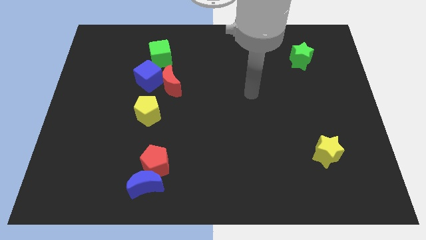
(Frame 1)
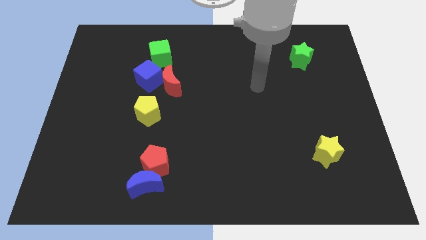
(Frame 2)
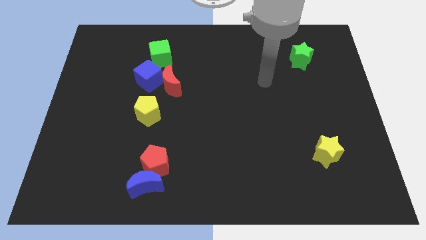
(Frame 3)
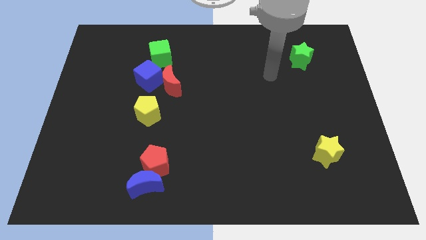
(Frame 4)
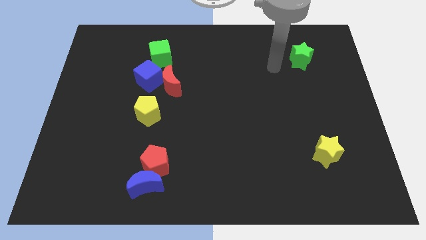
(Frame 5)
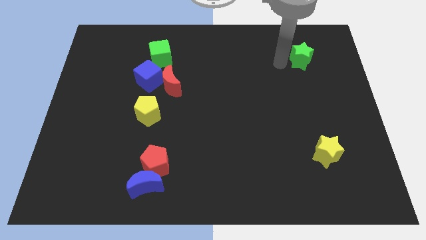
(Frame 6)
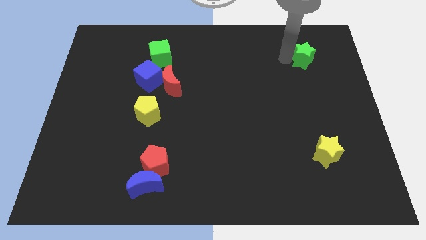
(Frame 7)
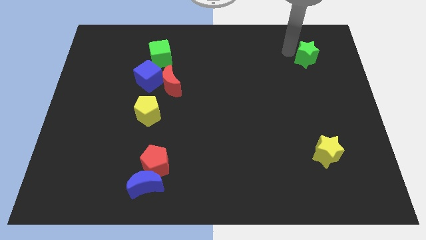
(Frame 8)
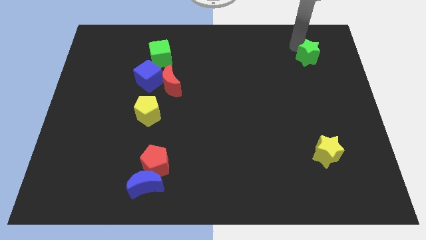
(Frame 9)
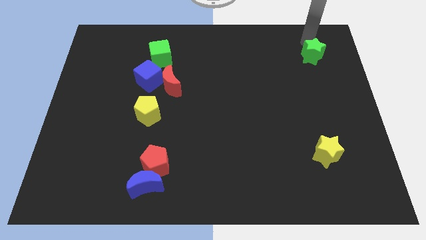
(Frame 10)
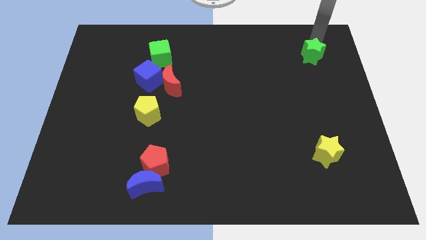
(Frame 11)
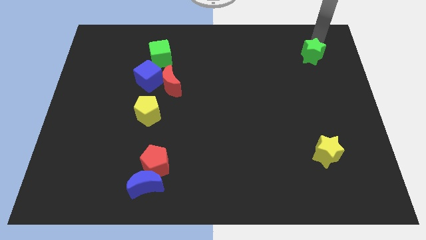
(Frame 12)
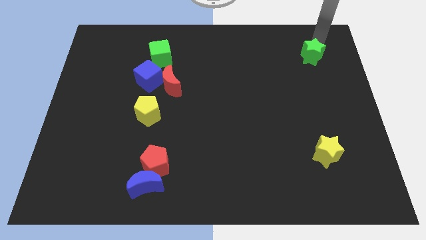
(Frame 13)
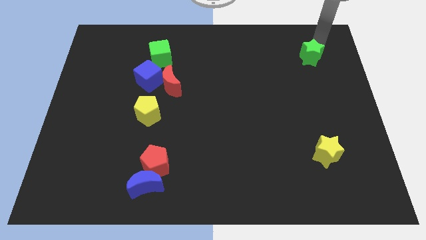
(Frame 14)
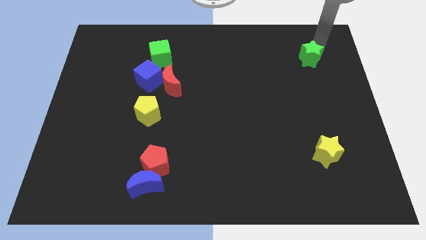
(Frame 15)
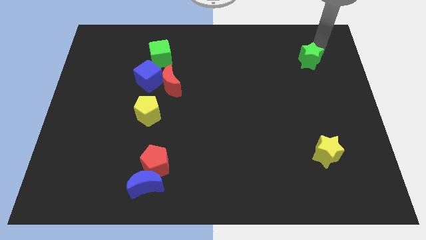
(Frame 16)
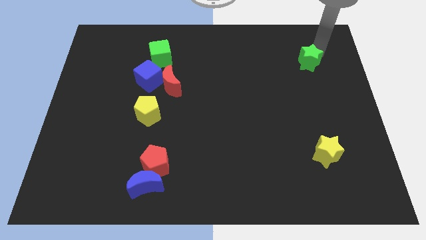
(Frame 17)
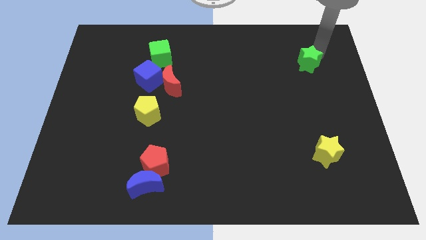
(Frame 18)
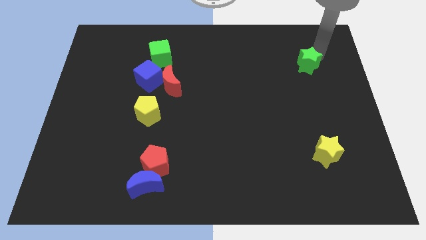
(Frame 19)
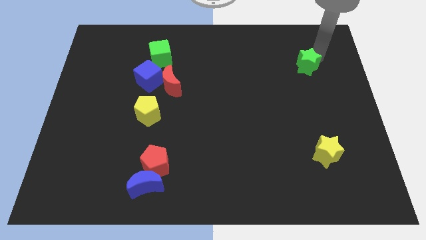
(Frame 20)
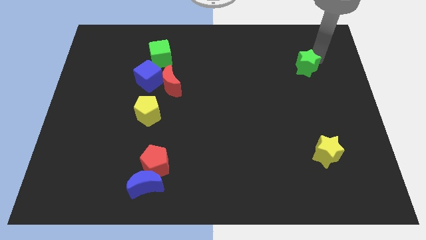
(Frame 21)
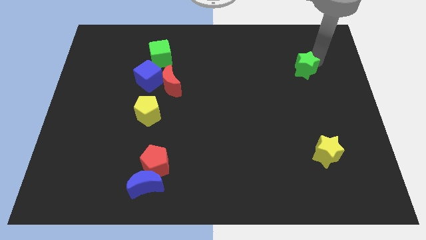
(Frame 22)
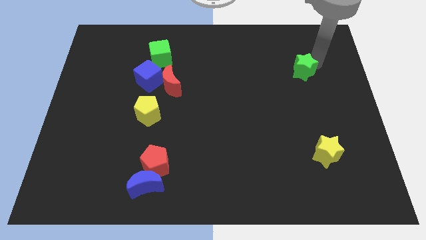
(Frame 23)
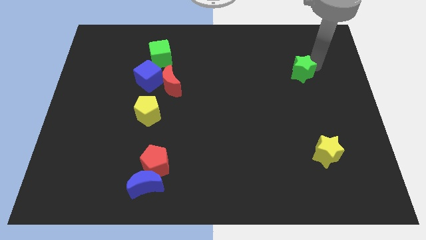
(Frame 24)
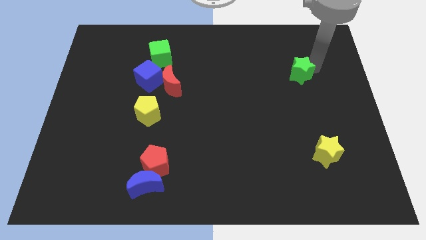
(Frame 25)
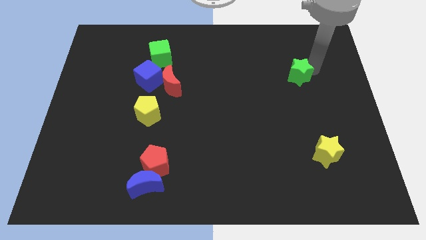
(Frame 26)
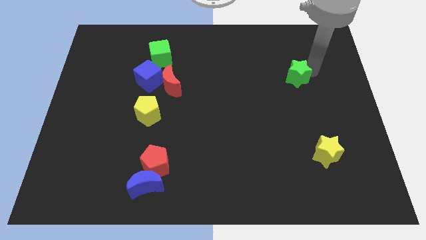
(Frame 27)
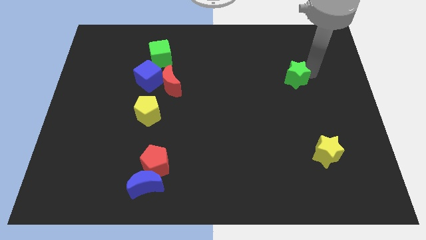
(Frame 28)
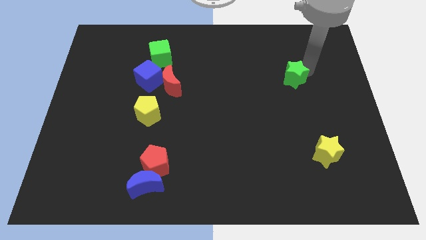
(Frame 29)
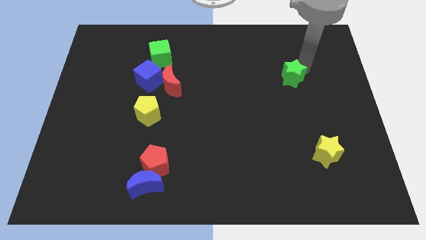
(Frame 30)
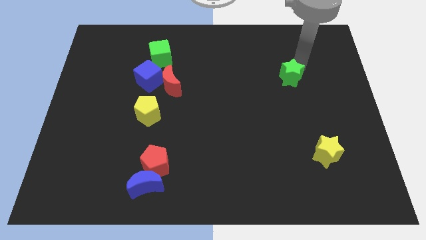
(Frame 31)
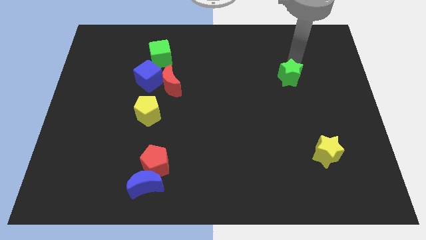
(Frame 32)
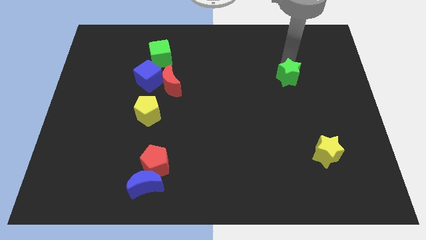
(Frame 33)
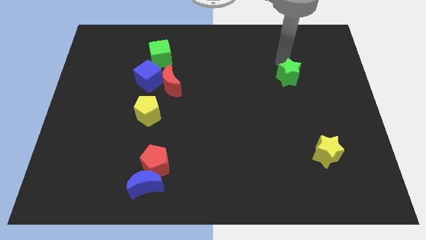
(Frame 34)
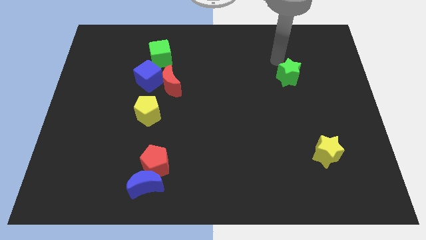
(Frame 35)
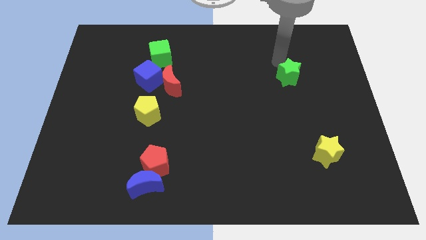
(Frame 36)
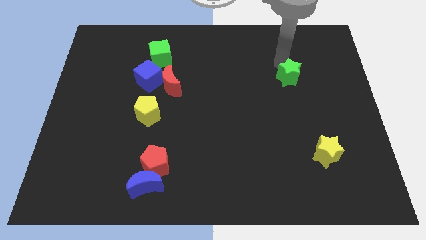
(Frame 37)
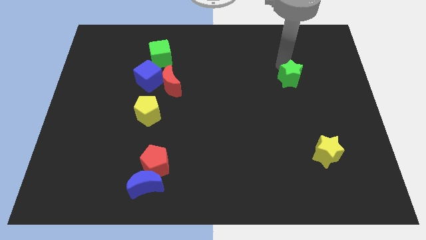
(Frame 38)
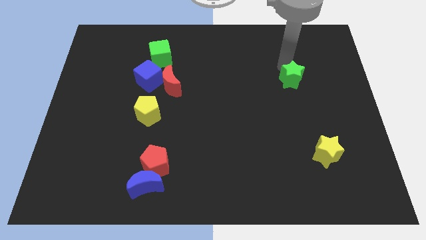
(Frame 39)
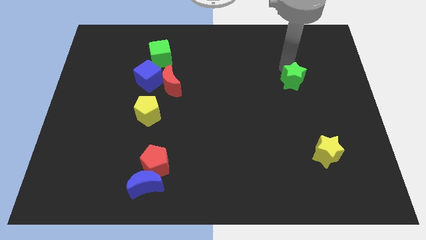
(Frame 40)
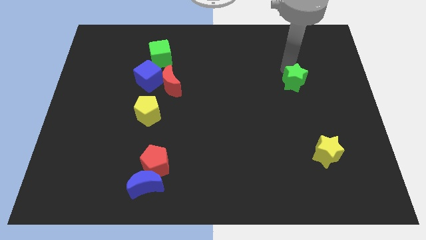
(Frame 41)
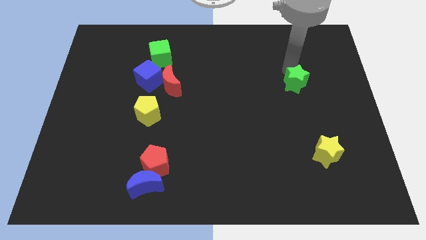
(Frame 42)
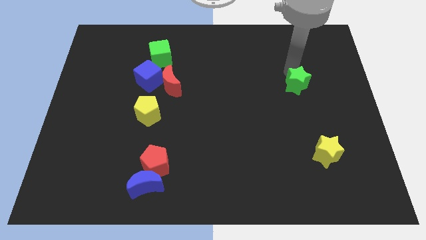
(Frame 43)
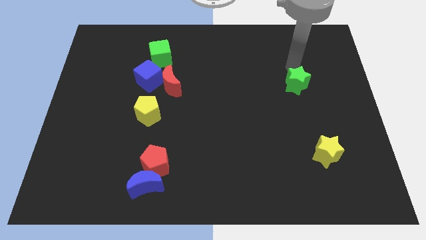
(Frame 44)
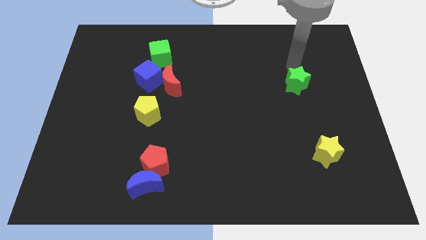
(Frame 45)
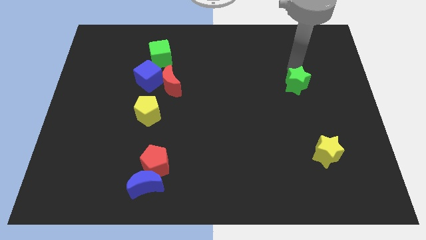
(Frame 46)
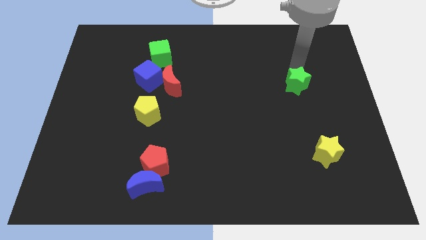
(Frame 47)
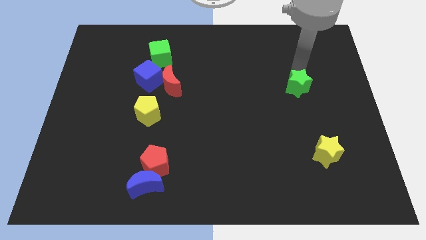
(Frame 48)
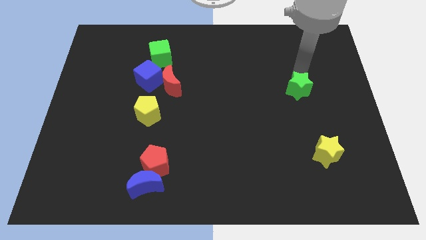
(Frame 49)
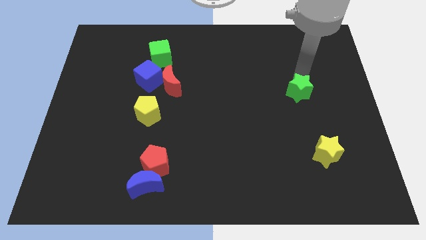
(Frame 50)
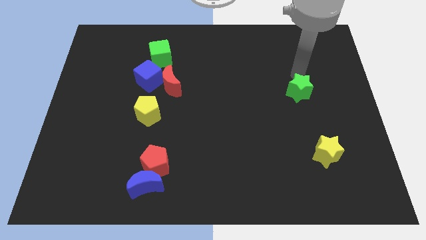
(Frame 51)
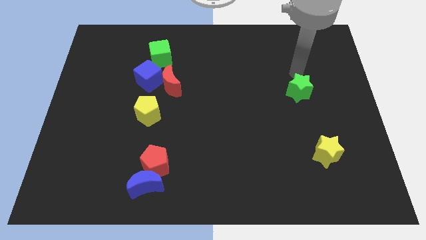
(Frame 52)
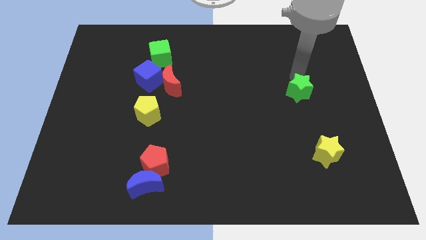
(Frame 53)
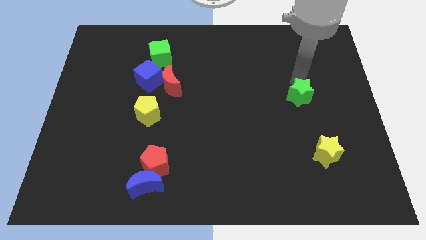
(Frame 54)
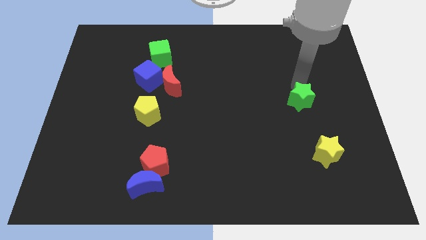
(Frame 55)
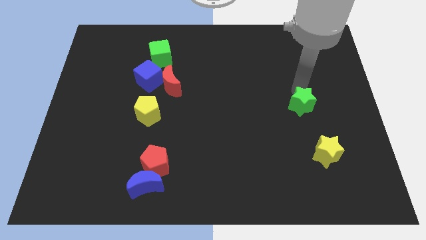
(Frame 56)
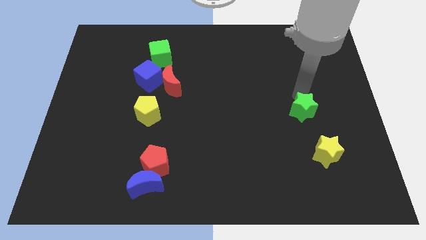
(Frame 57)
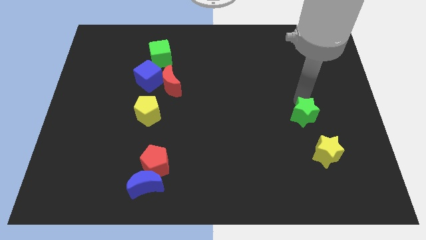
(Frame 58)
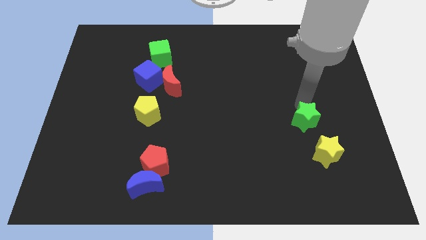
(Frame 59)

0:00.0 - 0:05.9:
slide the green star downwards

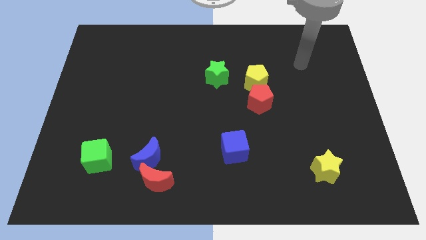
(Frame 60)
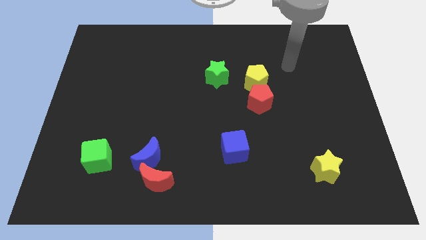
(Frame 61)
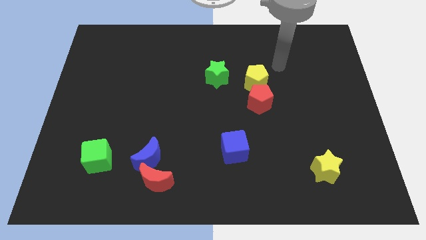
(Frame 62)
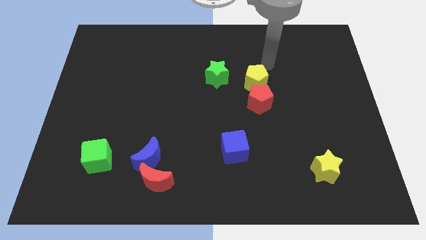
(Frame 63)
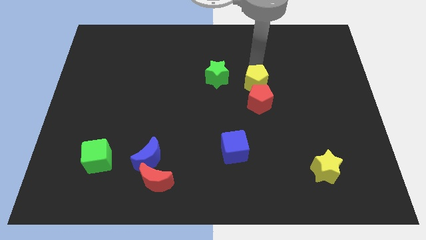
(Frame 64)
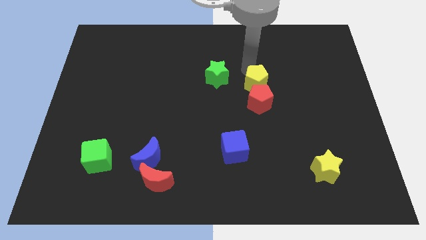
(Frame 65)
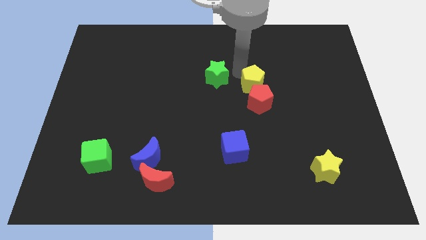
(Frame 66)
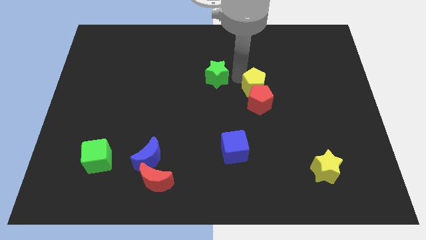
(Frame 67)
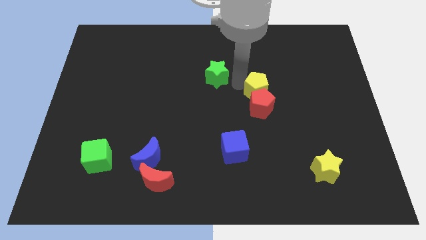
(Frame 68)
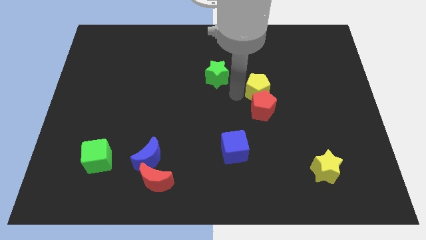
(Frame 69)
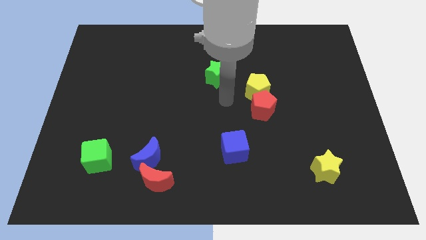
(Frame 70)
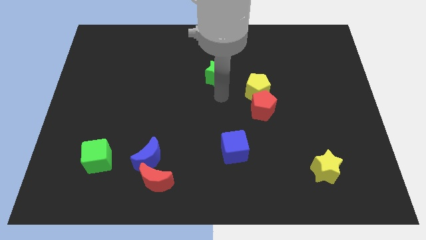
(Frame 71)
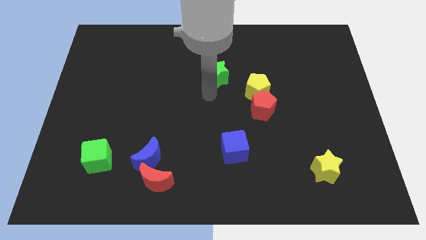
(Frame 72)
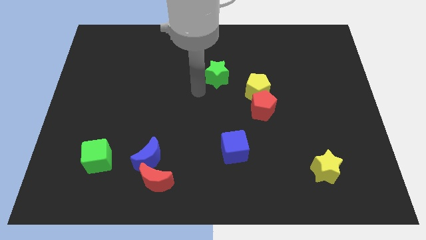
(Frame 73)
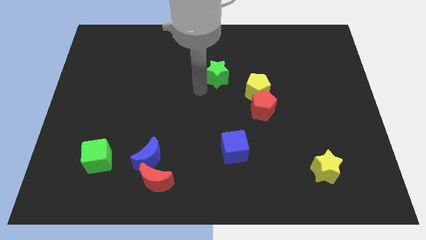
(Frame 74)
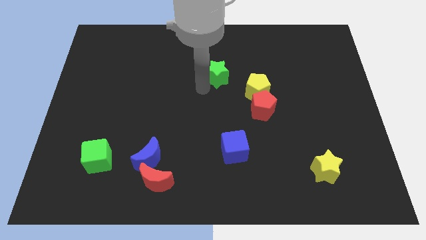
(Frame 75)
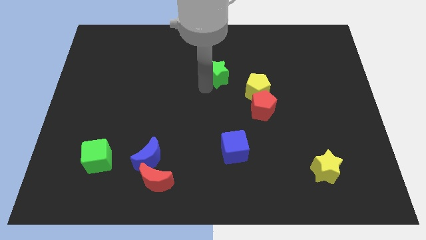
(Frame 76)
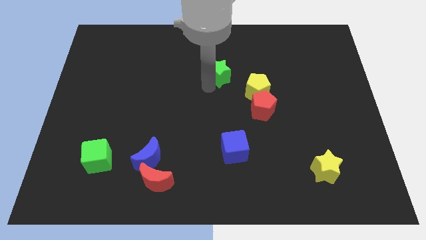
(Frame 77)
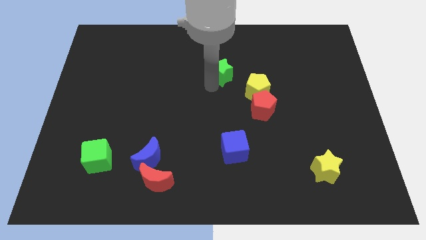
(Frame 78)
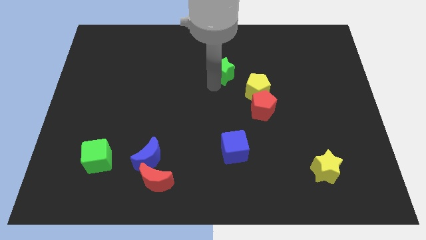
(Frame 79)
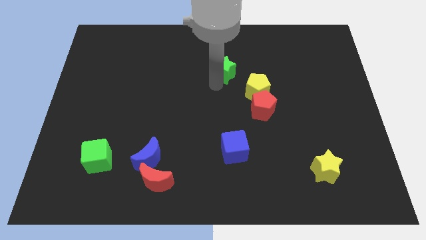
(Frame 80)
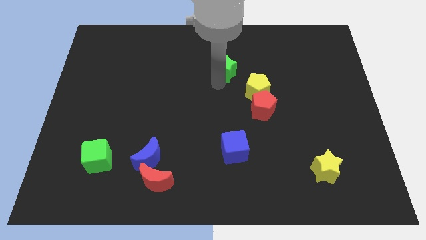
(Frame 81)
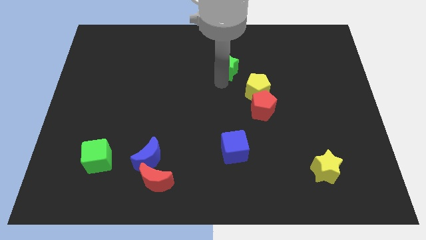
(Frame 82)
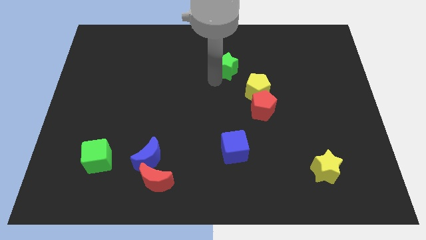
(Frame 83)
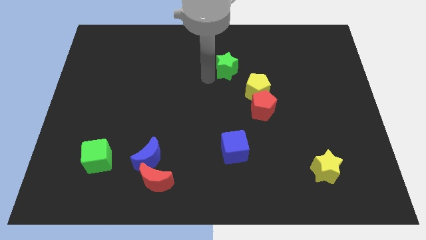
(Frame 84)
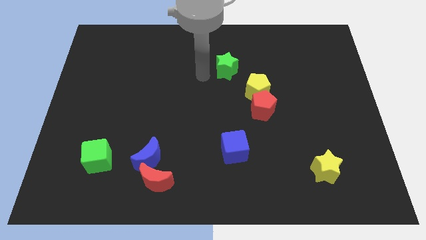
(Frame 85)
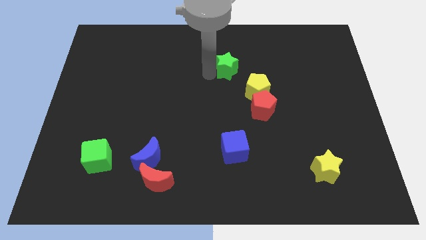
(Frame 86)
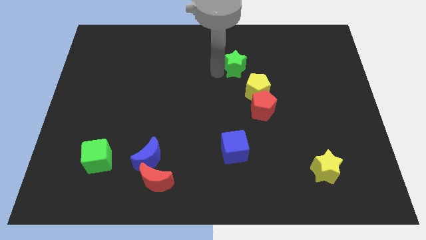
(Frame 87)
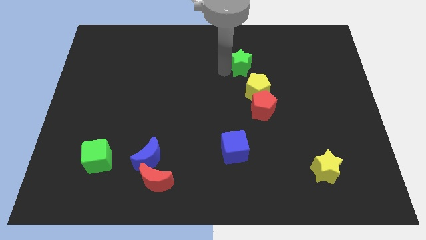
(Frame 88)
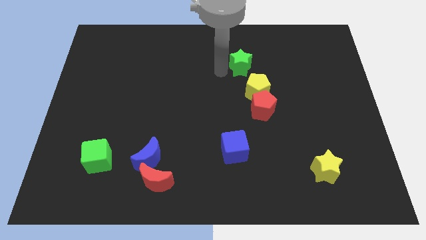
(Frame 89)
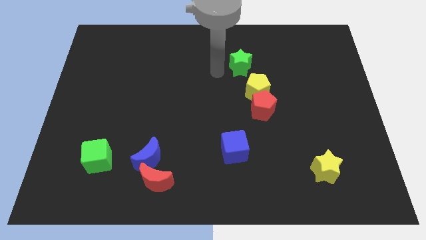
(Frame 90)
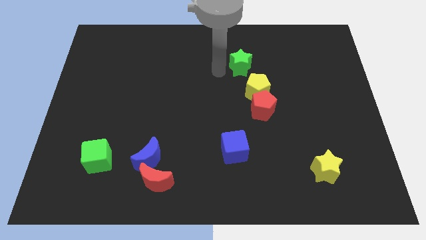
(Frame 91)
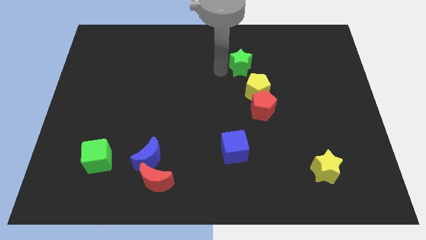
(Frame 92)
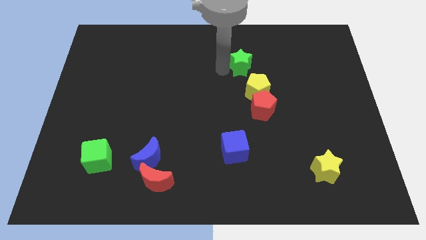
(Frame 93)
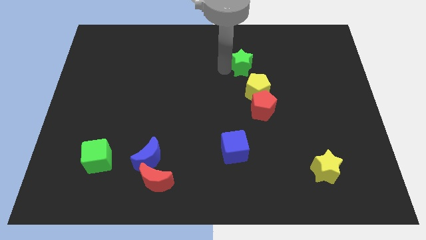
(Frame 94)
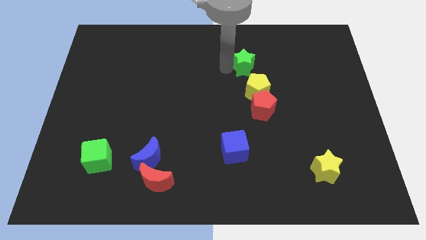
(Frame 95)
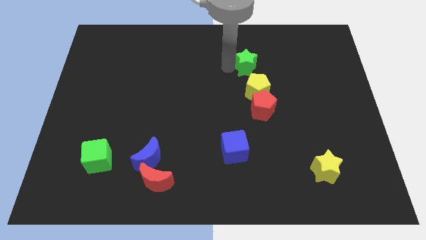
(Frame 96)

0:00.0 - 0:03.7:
slide the green star to the right a little bit
